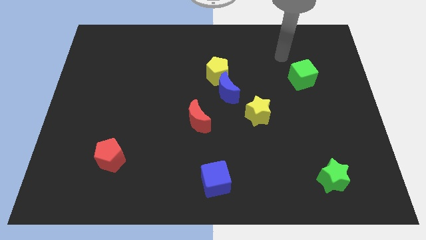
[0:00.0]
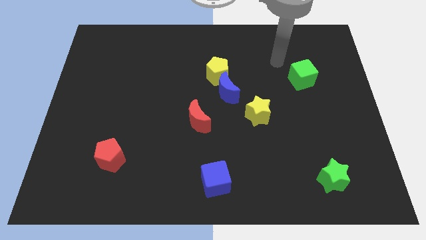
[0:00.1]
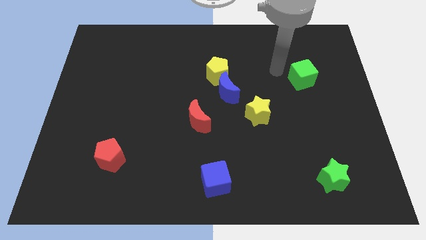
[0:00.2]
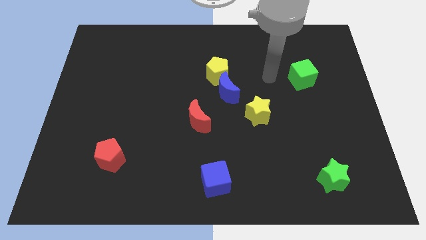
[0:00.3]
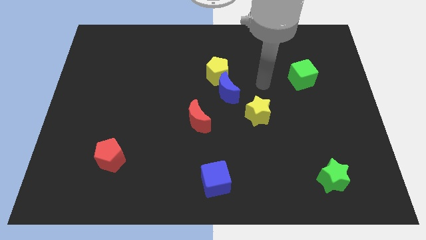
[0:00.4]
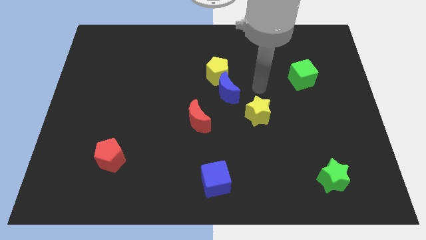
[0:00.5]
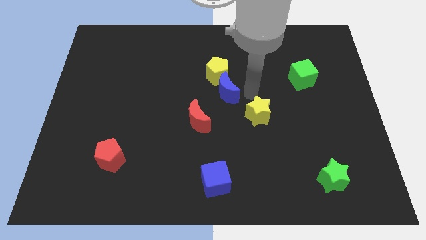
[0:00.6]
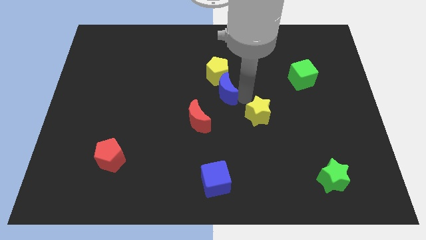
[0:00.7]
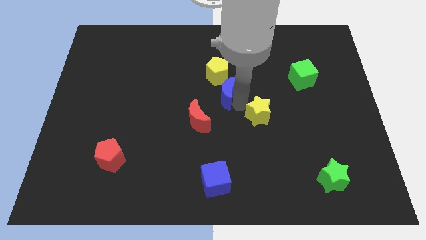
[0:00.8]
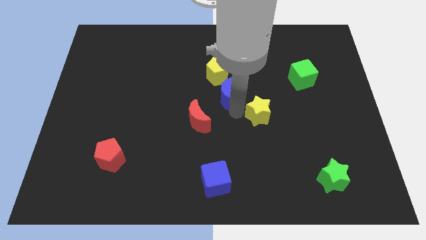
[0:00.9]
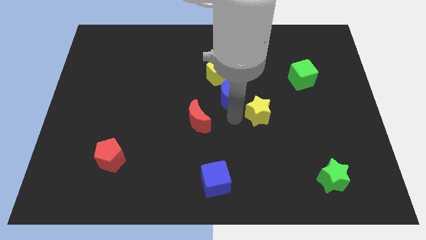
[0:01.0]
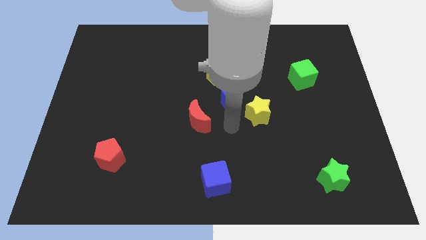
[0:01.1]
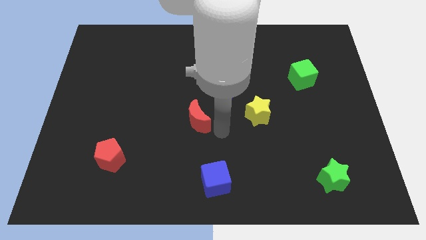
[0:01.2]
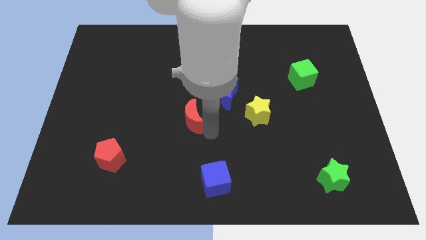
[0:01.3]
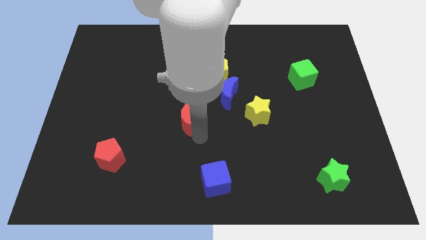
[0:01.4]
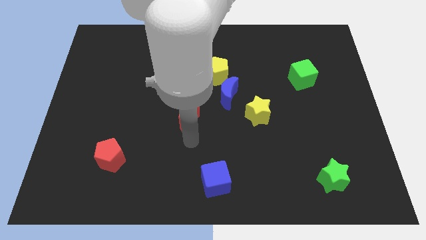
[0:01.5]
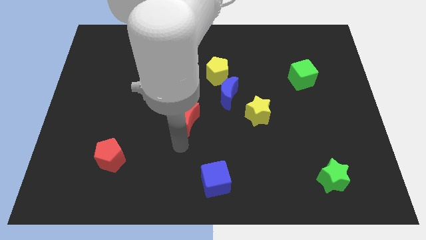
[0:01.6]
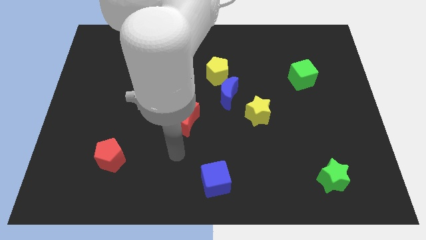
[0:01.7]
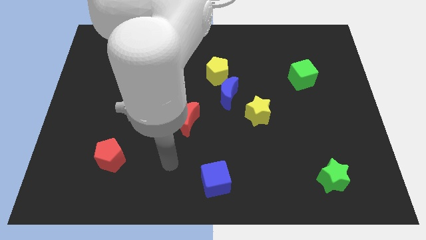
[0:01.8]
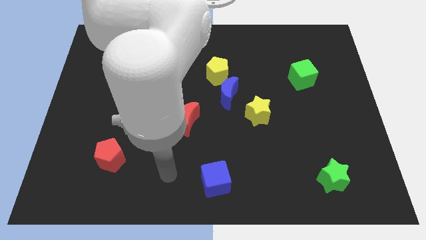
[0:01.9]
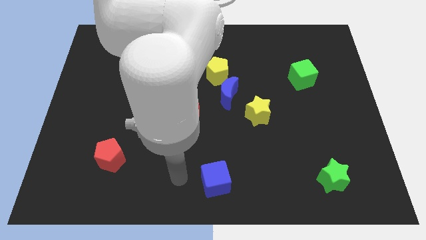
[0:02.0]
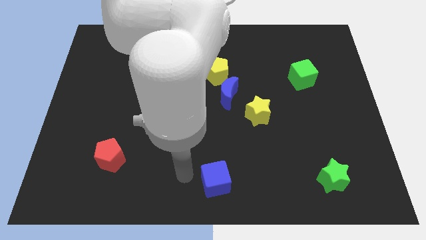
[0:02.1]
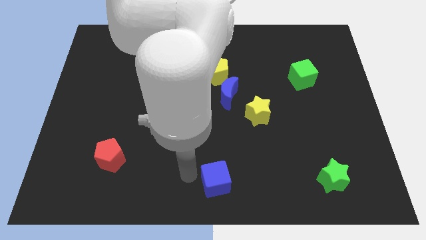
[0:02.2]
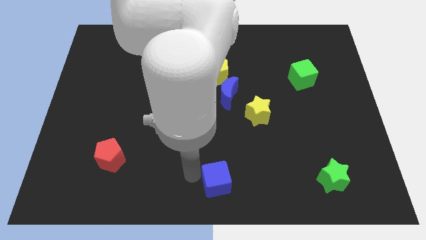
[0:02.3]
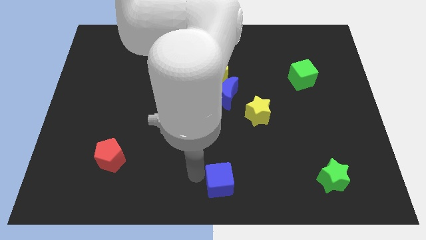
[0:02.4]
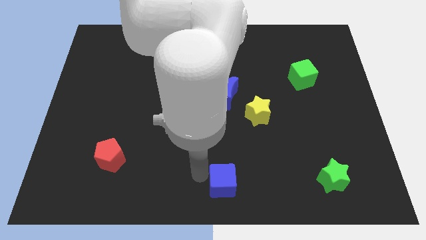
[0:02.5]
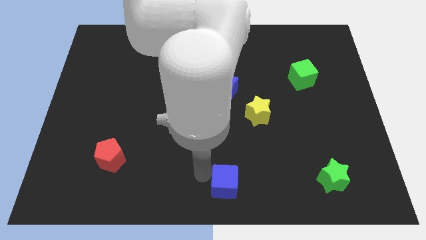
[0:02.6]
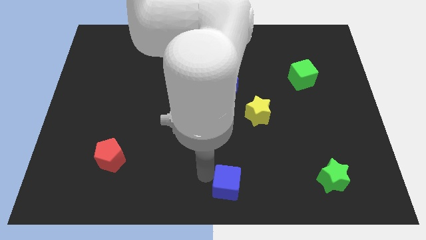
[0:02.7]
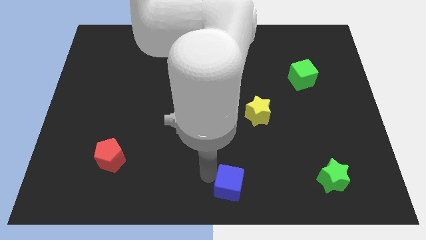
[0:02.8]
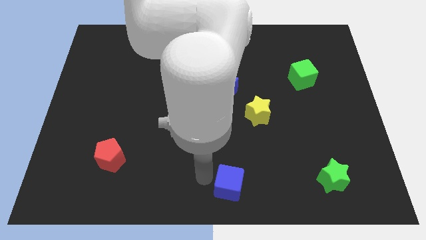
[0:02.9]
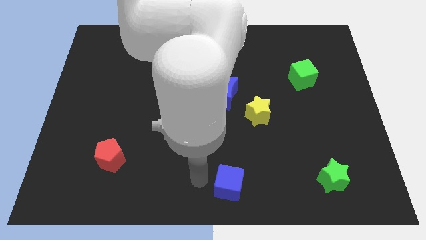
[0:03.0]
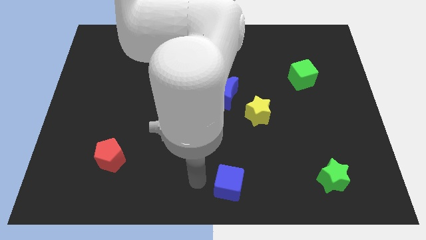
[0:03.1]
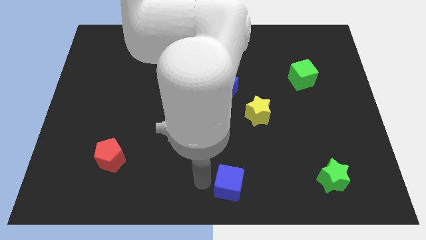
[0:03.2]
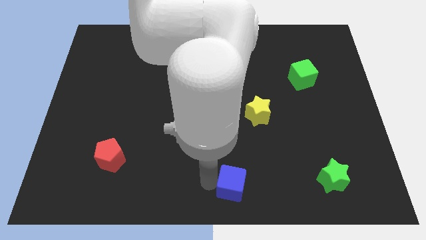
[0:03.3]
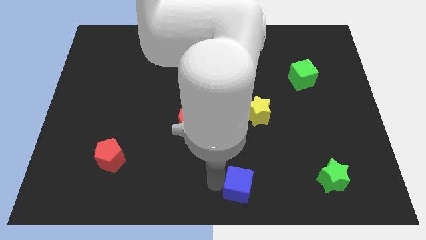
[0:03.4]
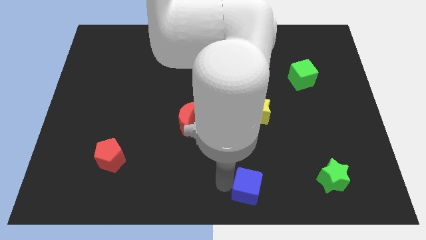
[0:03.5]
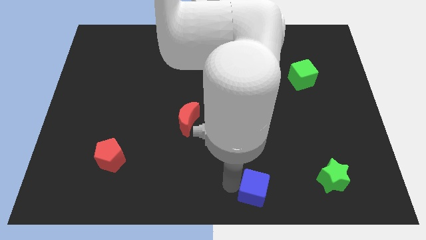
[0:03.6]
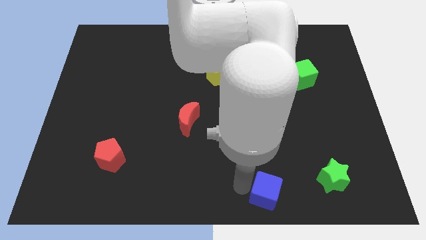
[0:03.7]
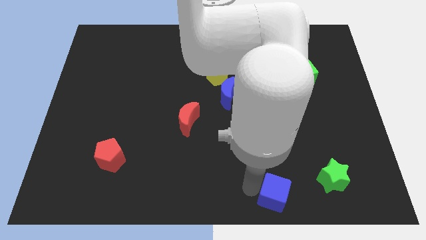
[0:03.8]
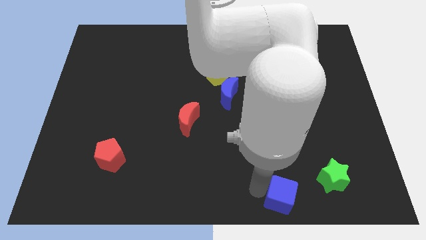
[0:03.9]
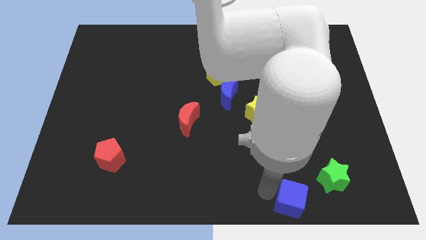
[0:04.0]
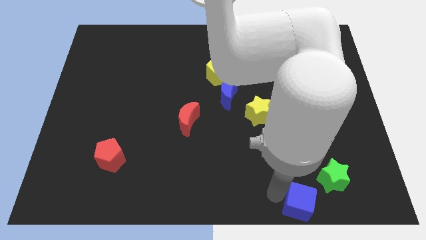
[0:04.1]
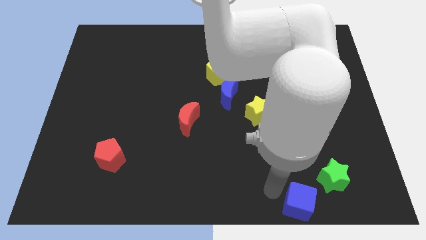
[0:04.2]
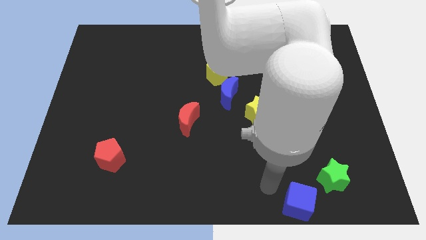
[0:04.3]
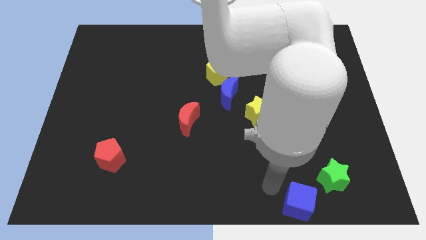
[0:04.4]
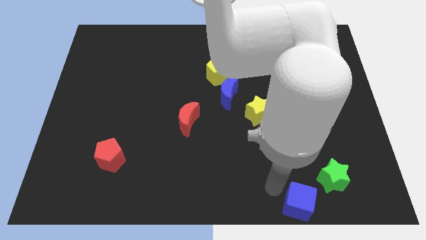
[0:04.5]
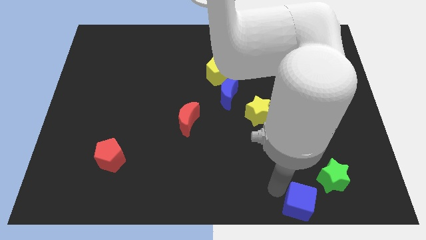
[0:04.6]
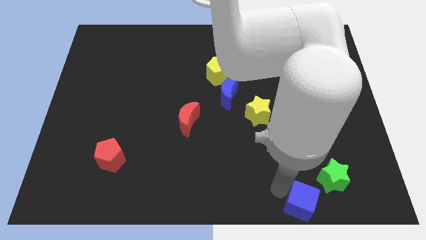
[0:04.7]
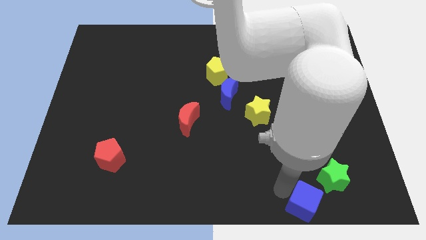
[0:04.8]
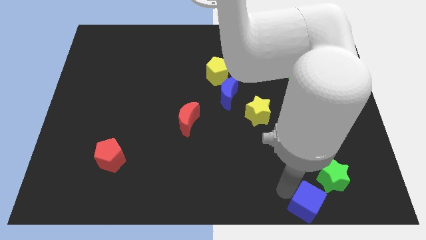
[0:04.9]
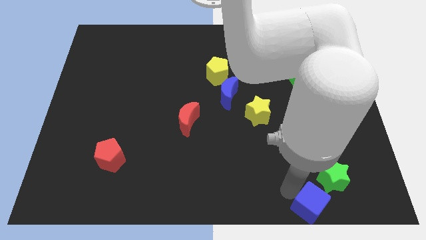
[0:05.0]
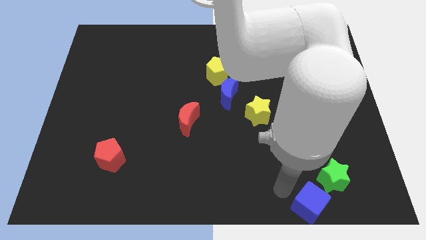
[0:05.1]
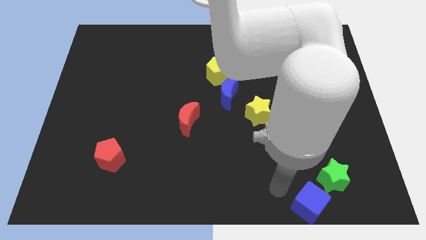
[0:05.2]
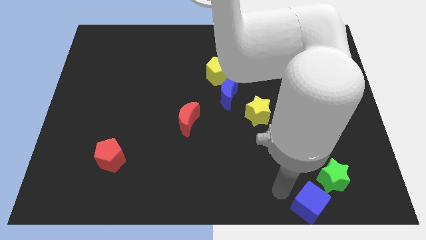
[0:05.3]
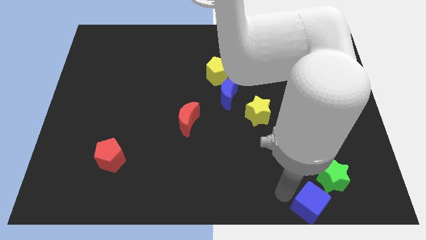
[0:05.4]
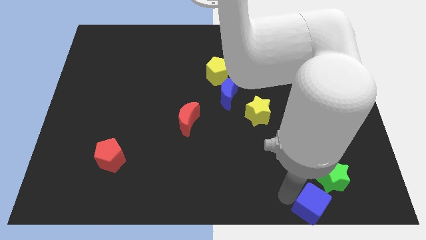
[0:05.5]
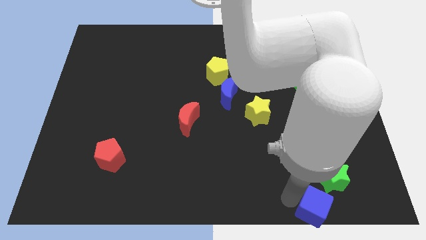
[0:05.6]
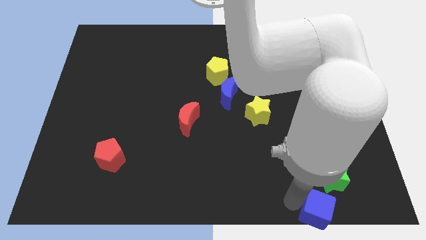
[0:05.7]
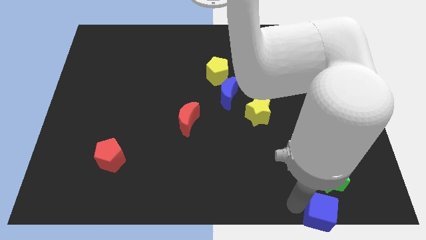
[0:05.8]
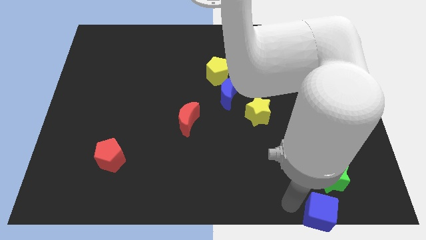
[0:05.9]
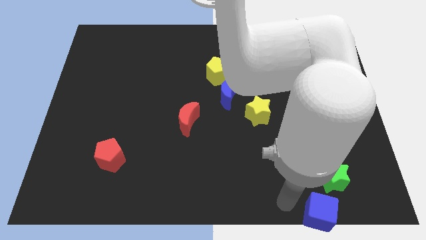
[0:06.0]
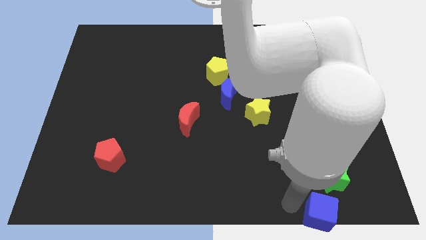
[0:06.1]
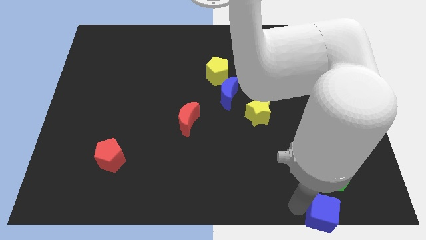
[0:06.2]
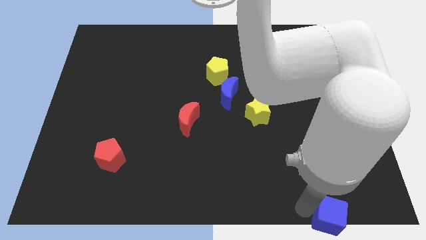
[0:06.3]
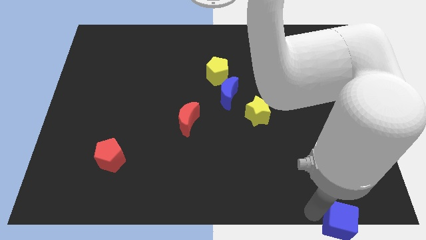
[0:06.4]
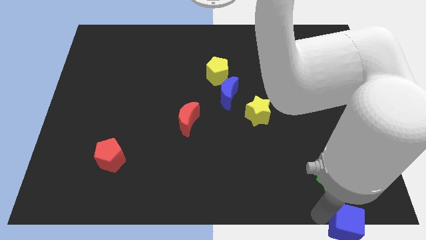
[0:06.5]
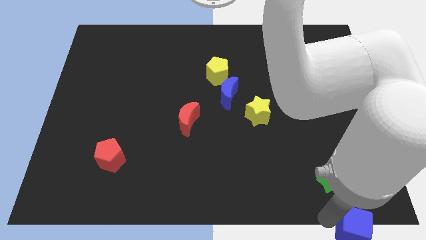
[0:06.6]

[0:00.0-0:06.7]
put the blue cube to the bottom right of the board
